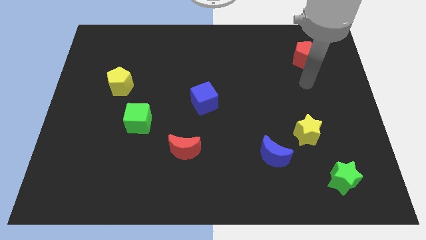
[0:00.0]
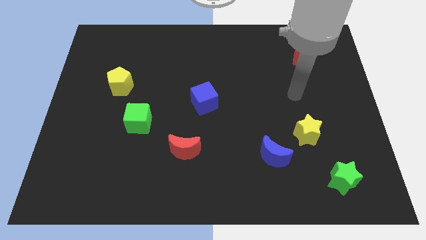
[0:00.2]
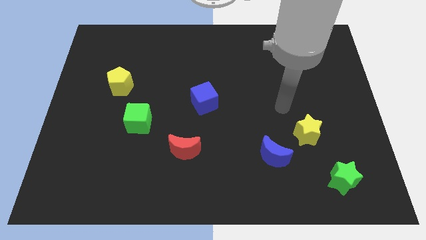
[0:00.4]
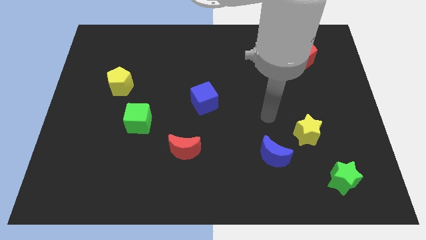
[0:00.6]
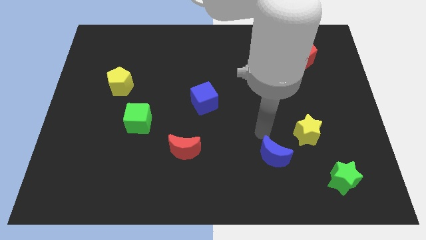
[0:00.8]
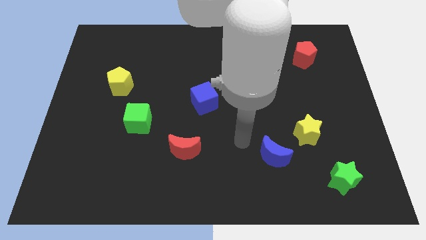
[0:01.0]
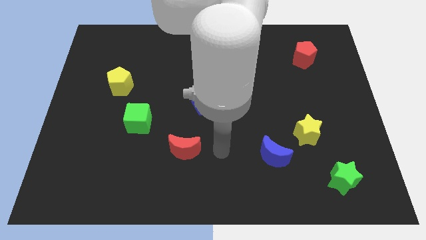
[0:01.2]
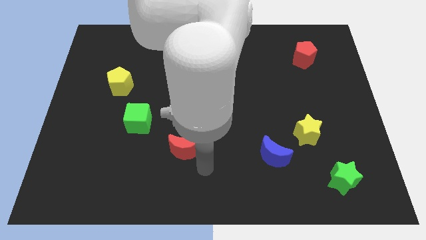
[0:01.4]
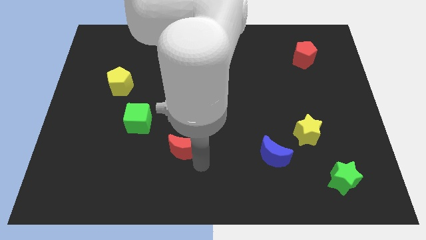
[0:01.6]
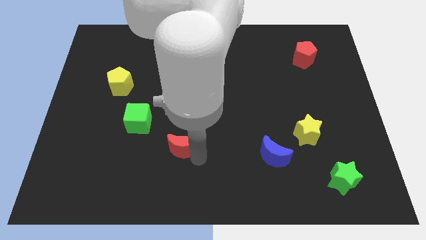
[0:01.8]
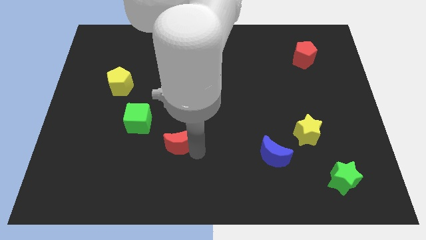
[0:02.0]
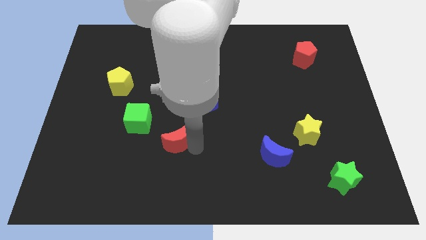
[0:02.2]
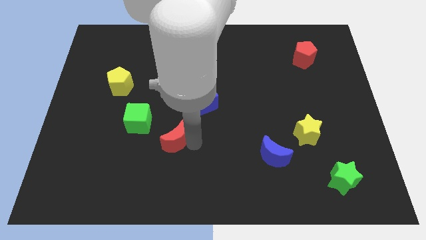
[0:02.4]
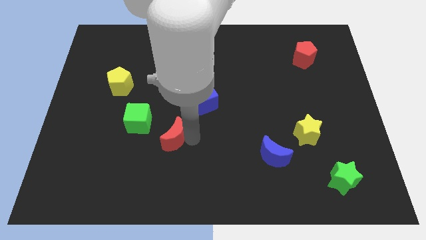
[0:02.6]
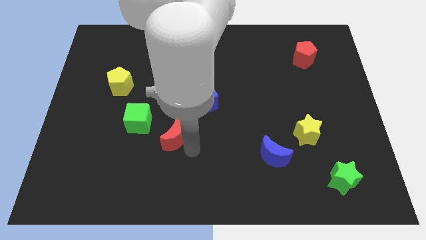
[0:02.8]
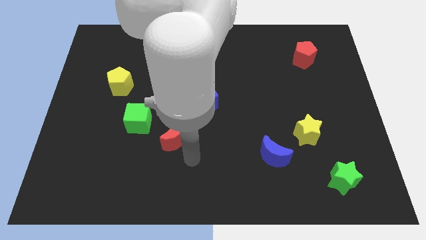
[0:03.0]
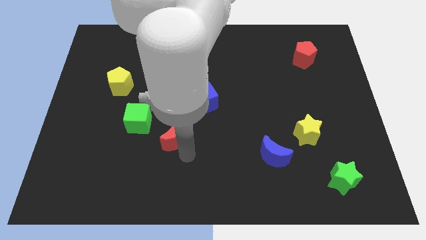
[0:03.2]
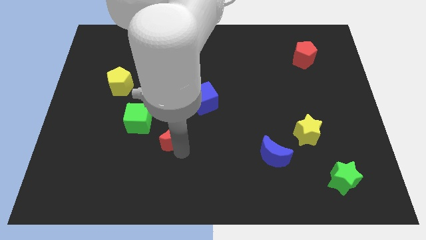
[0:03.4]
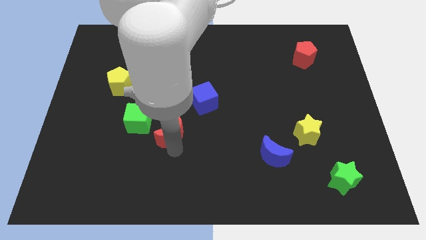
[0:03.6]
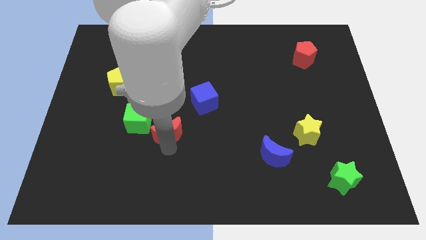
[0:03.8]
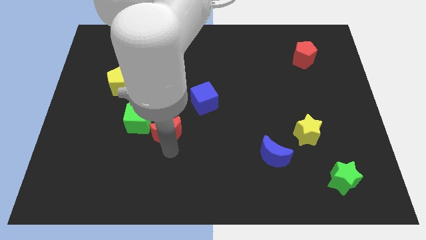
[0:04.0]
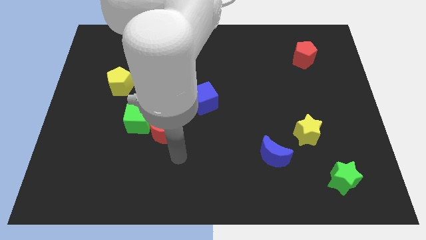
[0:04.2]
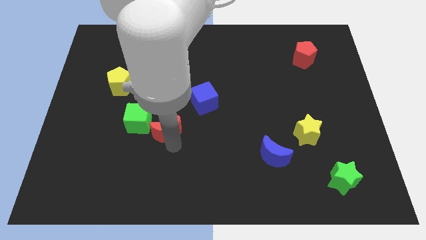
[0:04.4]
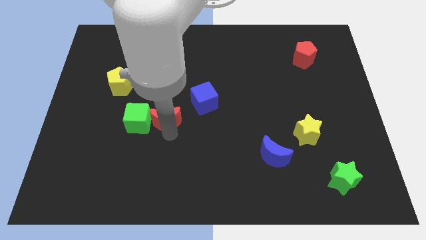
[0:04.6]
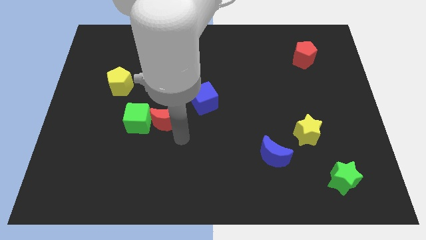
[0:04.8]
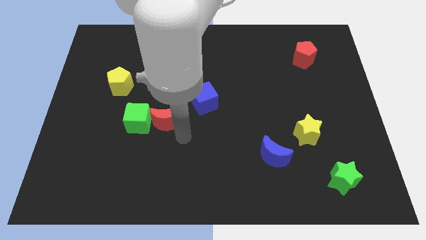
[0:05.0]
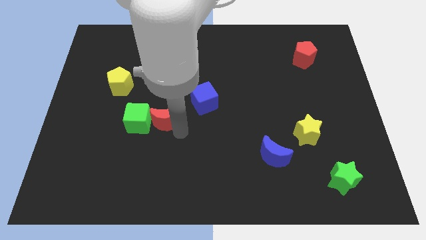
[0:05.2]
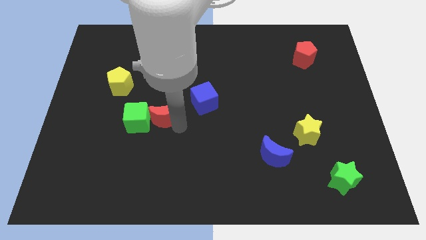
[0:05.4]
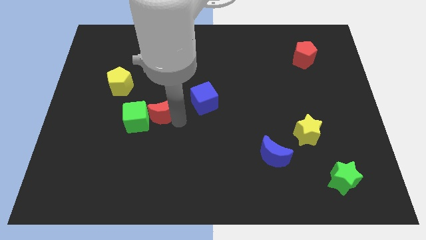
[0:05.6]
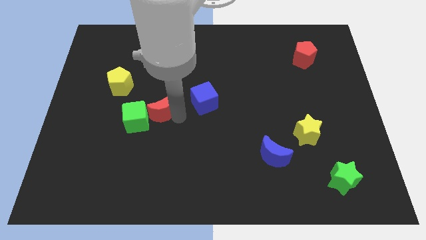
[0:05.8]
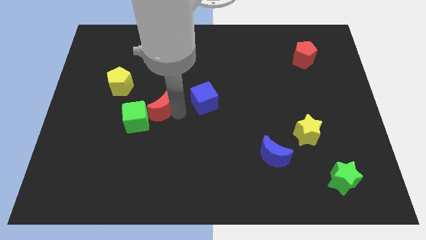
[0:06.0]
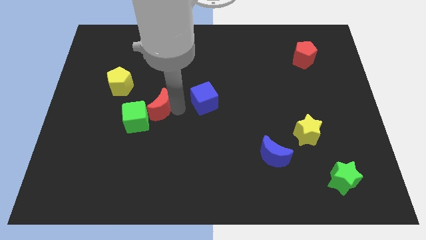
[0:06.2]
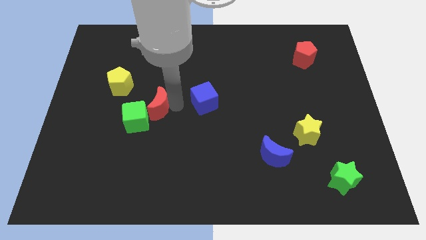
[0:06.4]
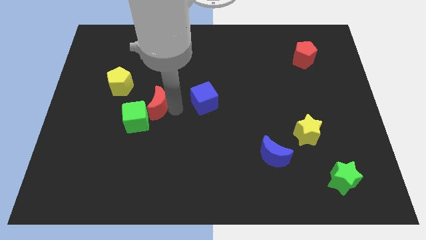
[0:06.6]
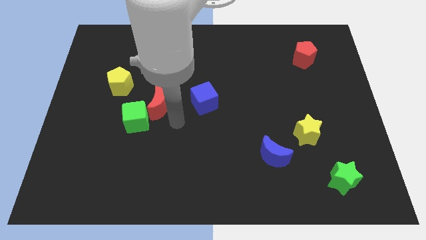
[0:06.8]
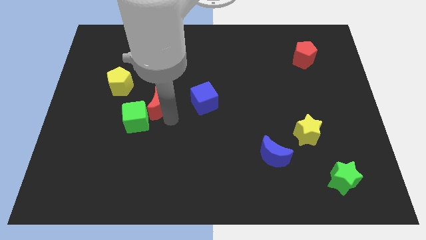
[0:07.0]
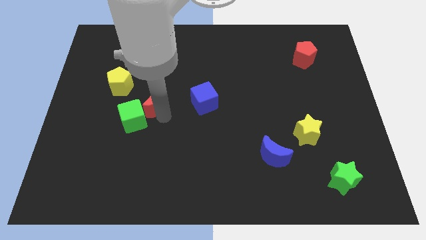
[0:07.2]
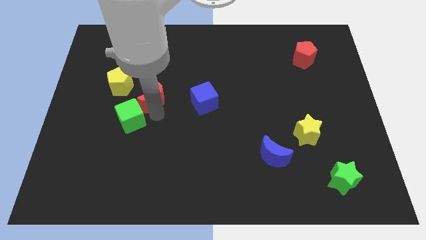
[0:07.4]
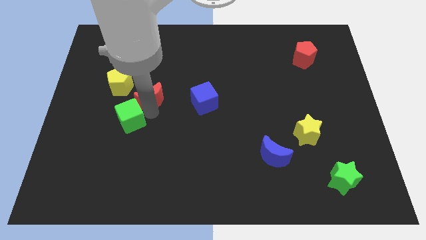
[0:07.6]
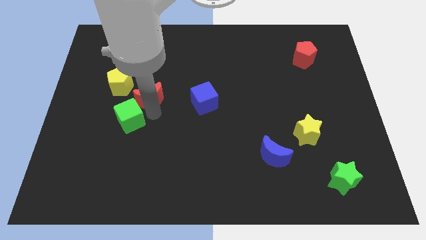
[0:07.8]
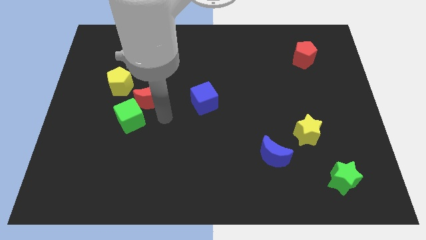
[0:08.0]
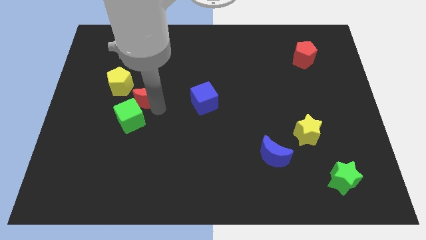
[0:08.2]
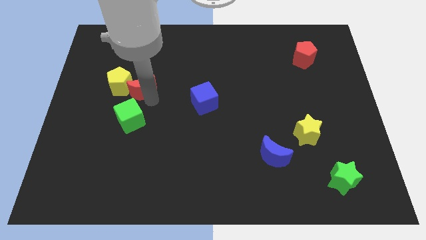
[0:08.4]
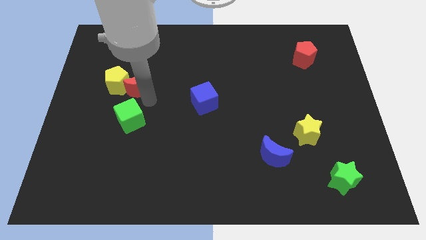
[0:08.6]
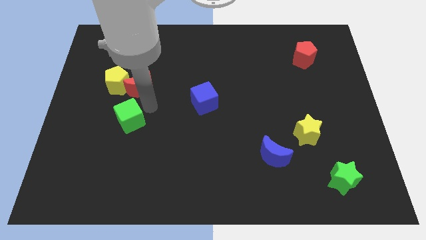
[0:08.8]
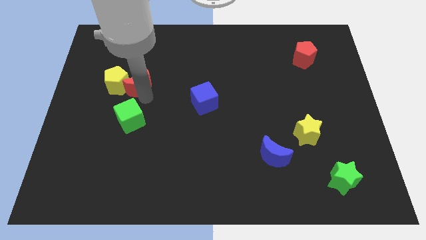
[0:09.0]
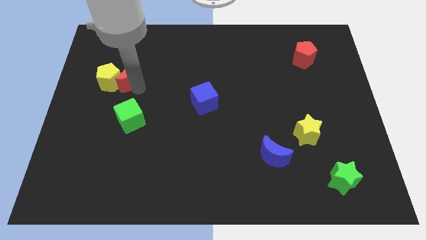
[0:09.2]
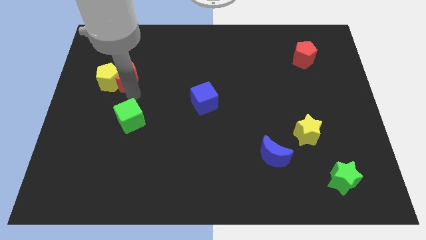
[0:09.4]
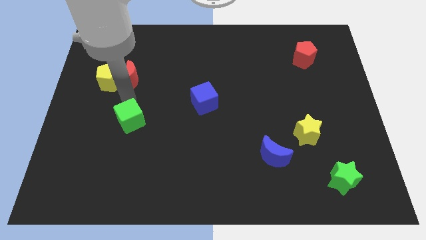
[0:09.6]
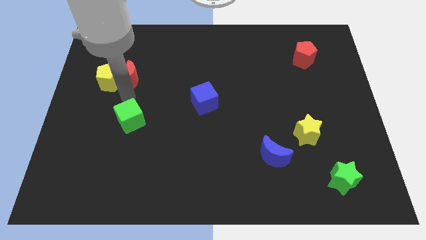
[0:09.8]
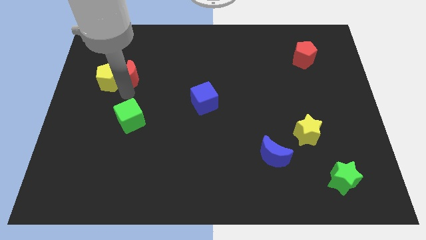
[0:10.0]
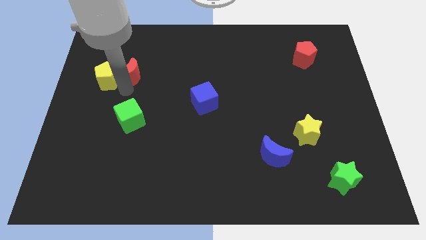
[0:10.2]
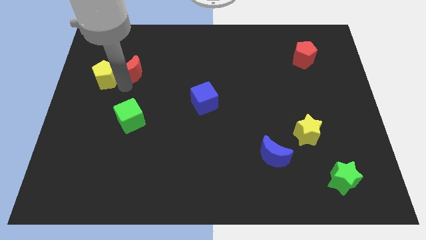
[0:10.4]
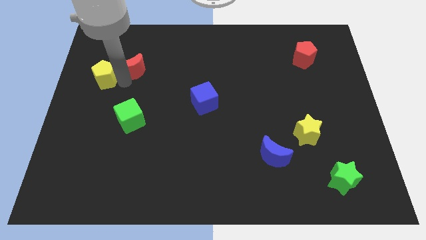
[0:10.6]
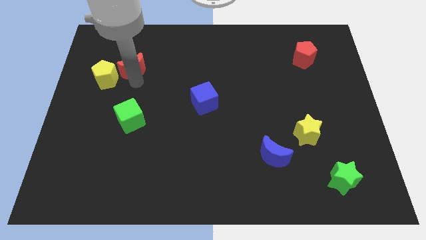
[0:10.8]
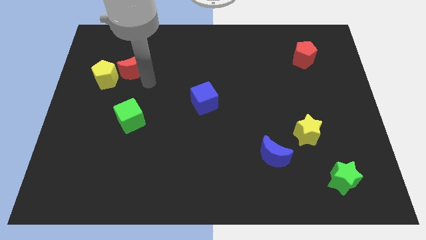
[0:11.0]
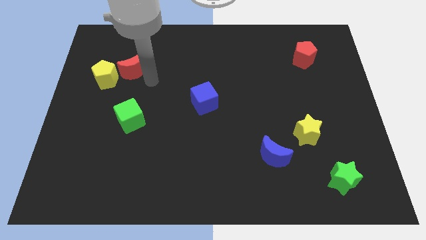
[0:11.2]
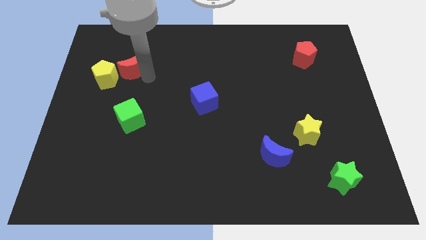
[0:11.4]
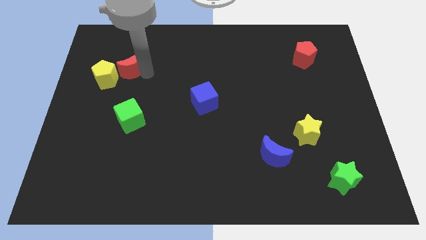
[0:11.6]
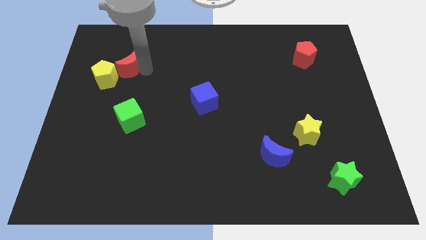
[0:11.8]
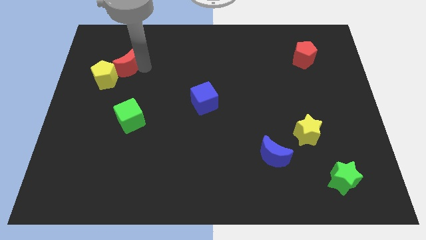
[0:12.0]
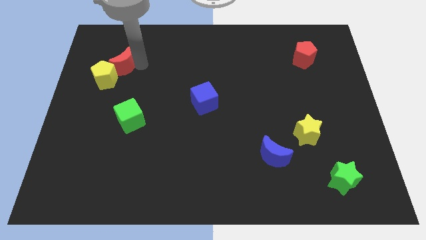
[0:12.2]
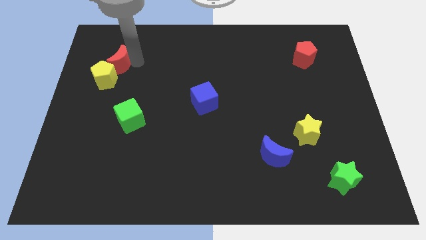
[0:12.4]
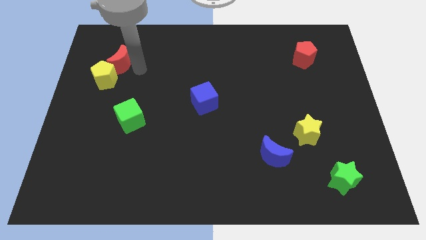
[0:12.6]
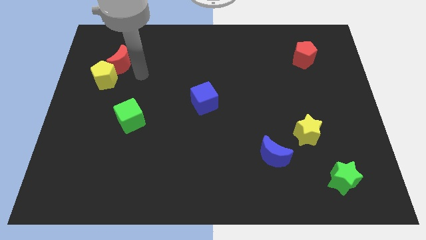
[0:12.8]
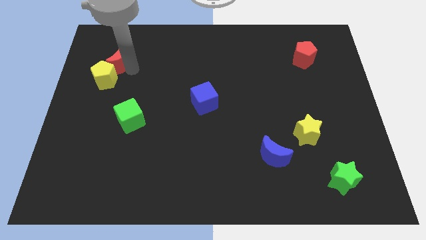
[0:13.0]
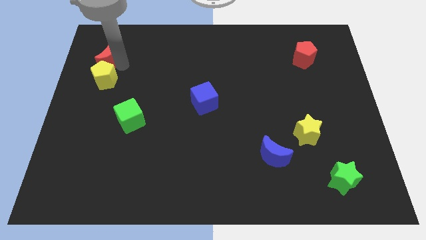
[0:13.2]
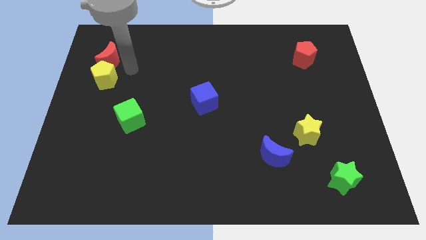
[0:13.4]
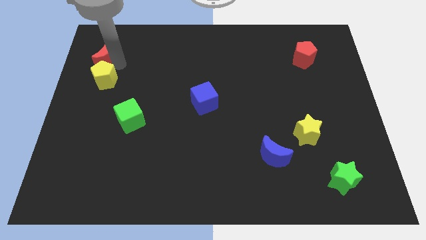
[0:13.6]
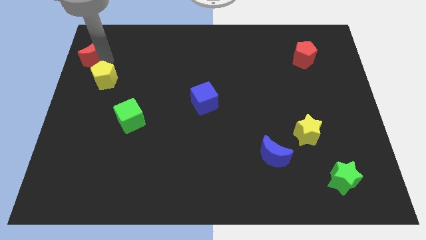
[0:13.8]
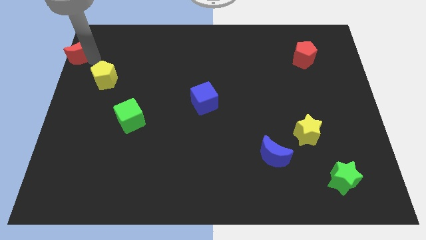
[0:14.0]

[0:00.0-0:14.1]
put the red moon to the upper left corner

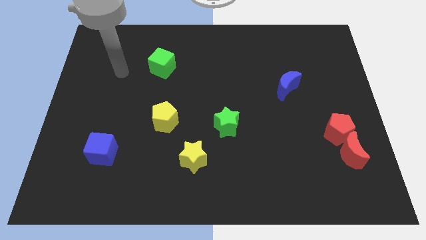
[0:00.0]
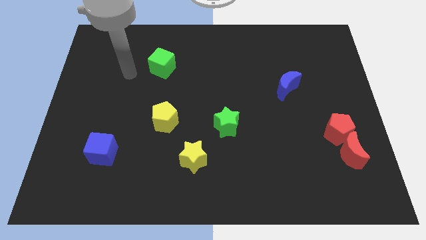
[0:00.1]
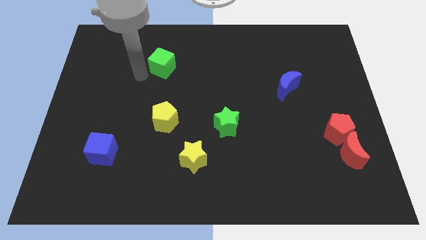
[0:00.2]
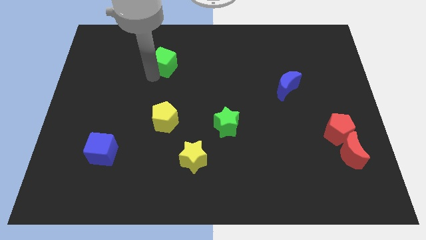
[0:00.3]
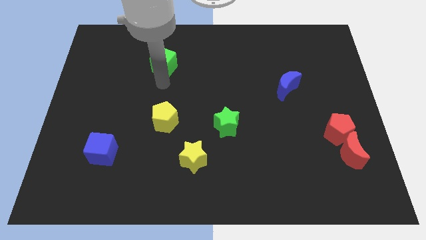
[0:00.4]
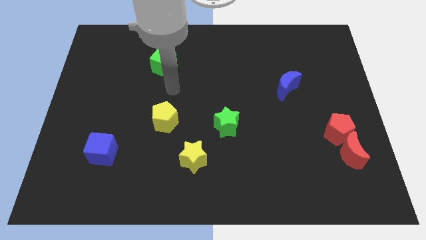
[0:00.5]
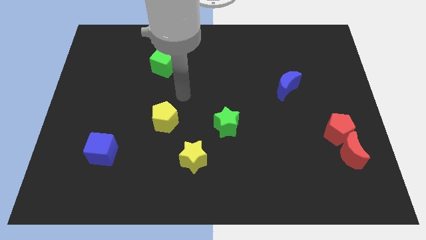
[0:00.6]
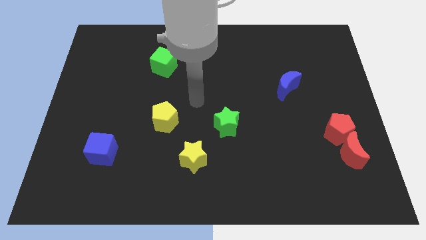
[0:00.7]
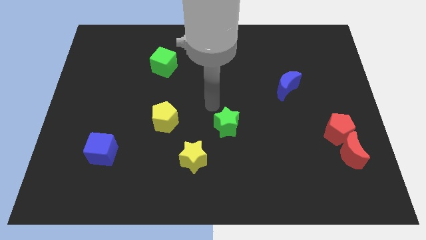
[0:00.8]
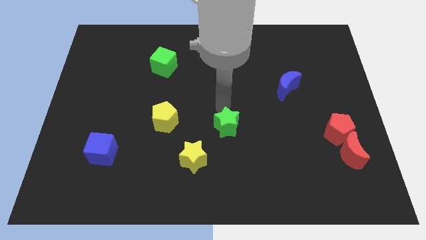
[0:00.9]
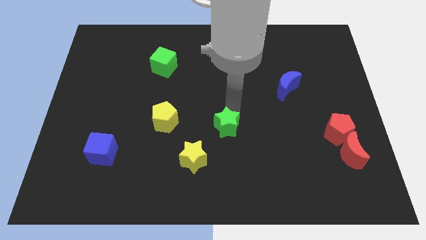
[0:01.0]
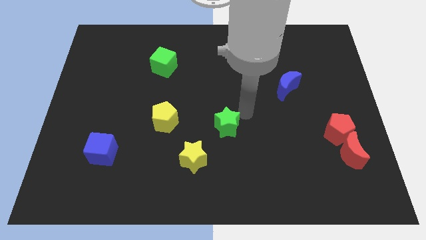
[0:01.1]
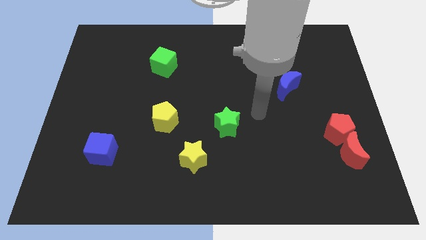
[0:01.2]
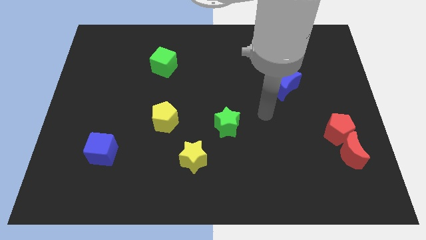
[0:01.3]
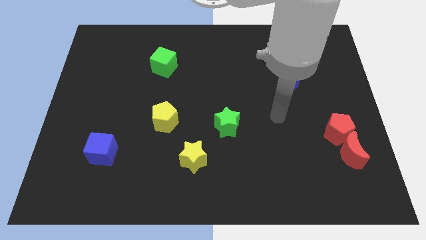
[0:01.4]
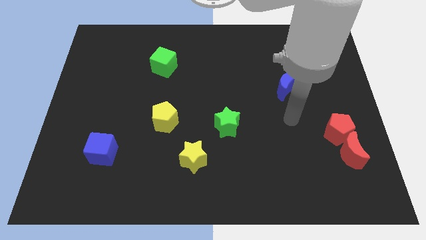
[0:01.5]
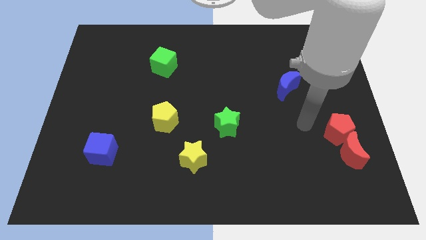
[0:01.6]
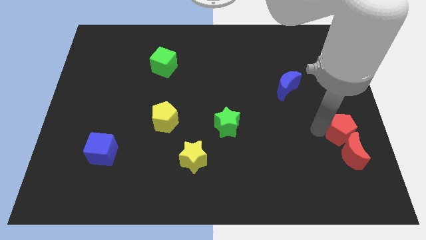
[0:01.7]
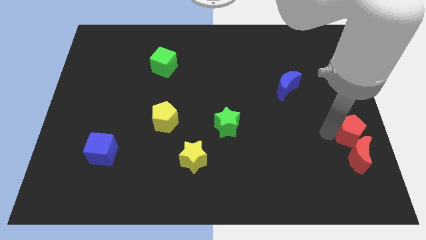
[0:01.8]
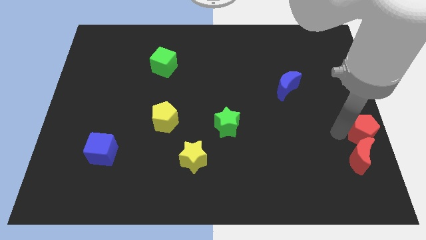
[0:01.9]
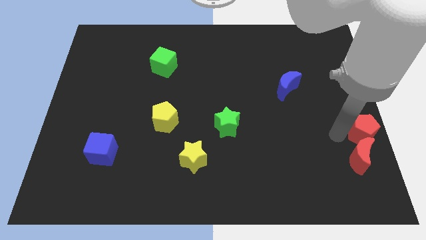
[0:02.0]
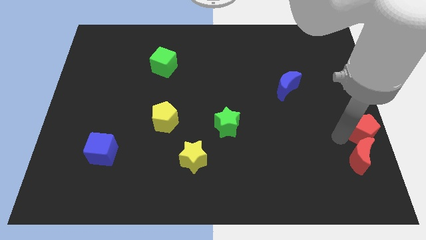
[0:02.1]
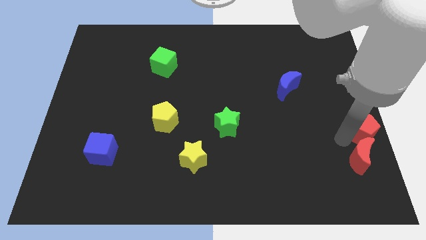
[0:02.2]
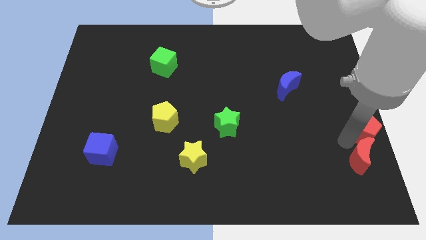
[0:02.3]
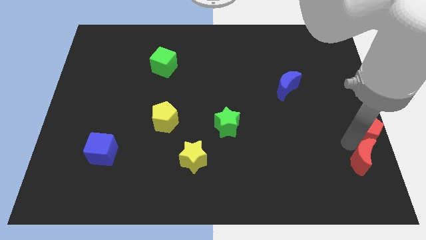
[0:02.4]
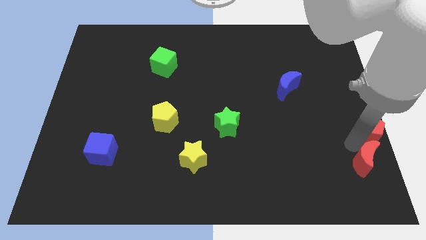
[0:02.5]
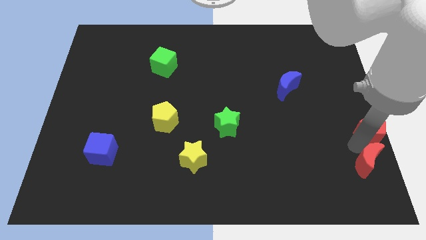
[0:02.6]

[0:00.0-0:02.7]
move the red moon to the lower right corner
